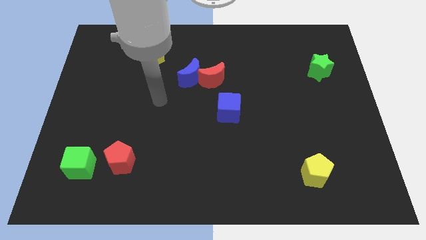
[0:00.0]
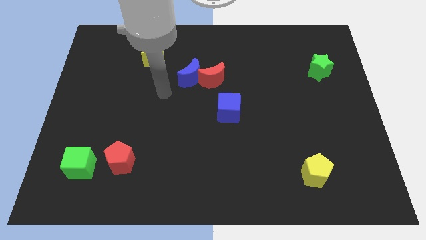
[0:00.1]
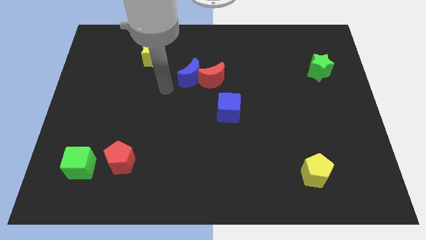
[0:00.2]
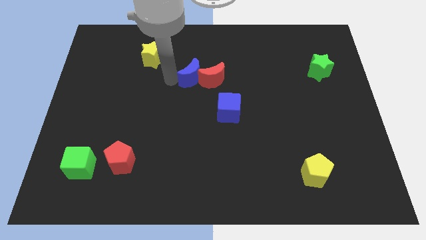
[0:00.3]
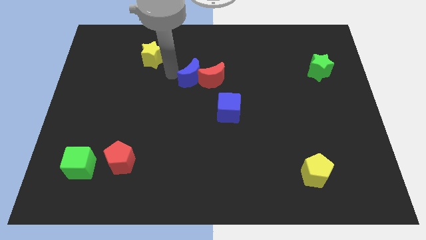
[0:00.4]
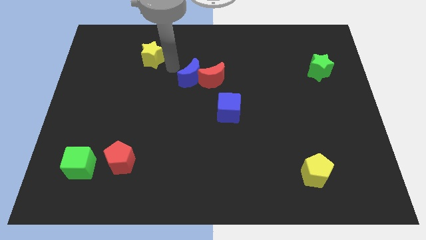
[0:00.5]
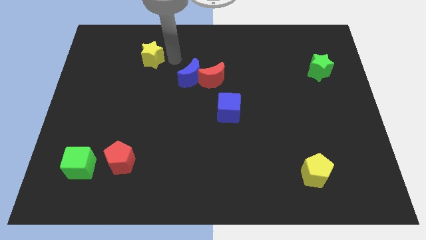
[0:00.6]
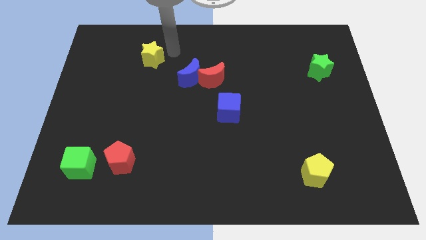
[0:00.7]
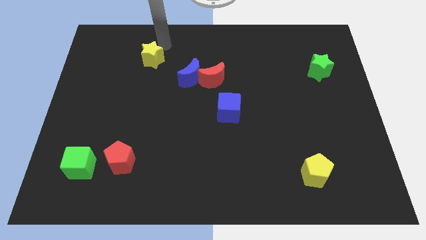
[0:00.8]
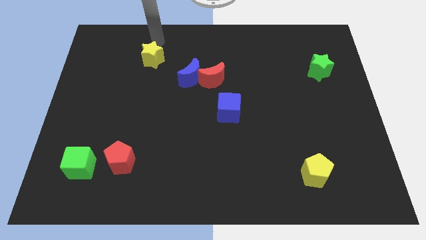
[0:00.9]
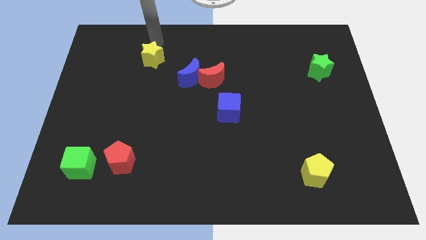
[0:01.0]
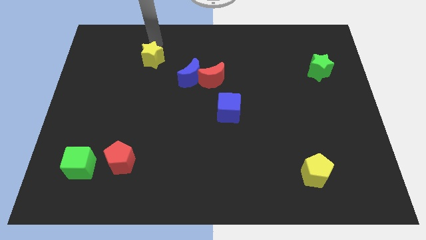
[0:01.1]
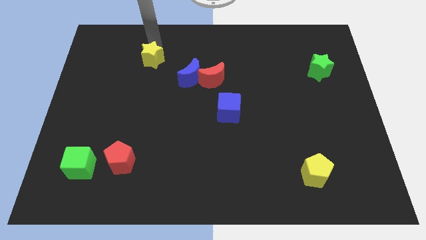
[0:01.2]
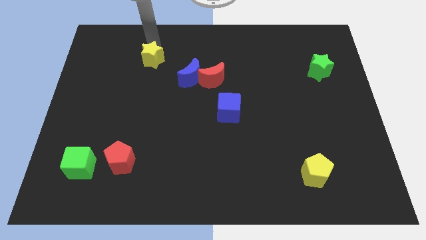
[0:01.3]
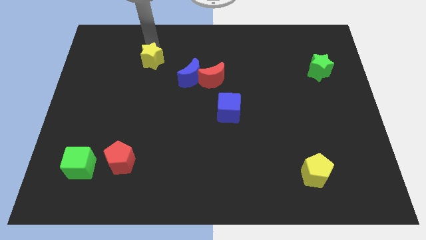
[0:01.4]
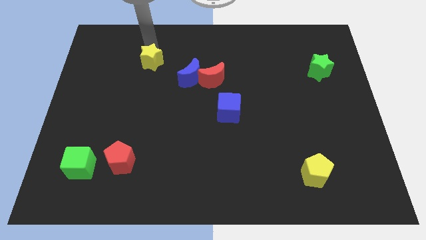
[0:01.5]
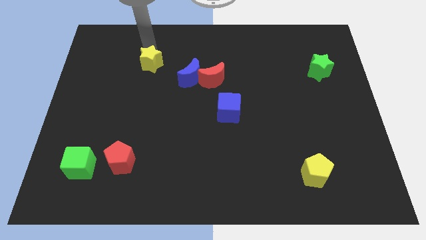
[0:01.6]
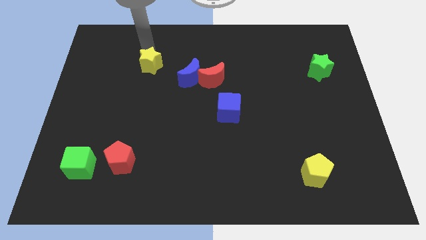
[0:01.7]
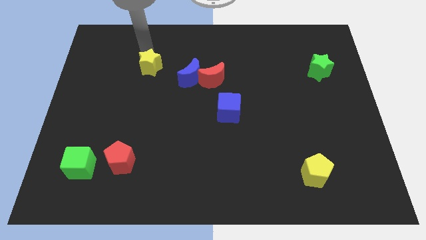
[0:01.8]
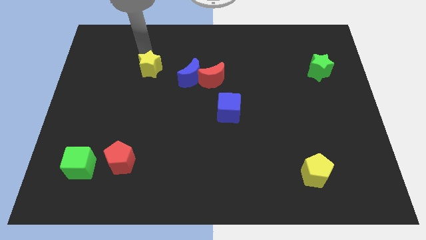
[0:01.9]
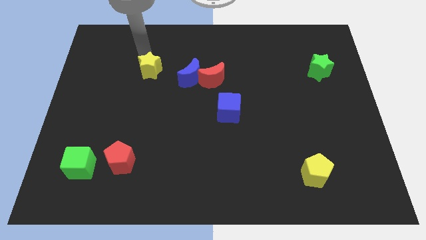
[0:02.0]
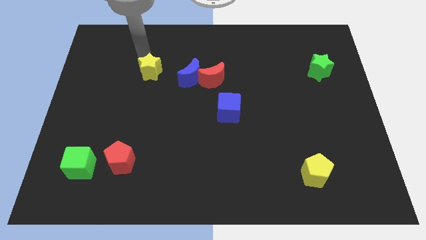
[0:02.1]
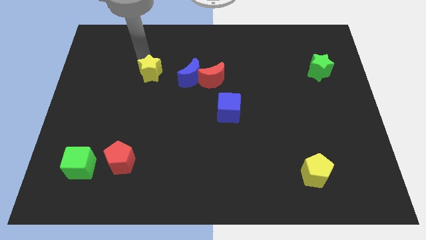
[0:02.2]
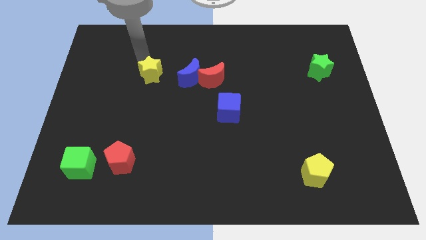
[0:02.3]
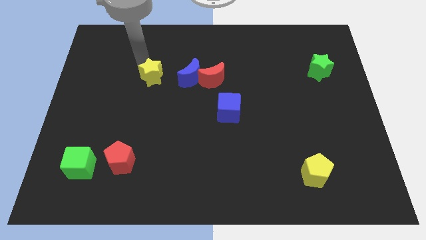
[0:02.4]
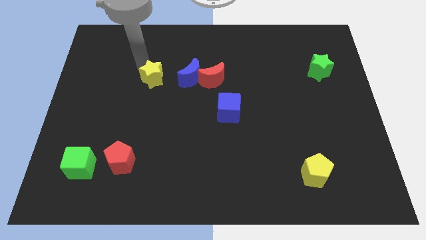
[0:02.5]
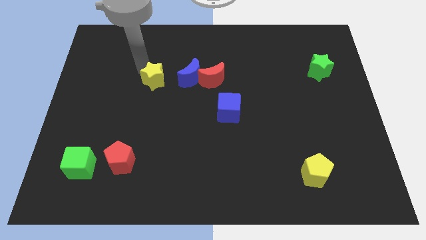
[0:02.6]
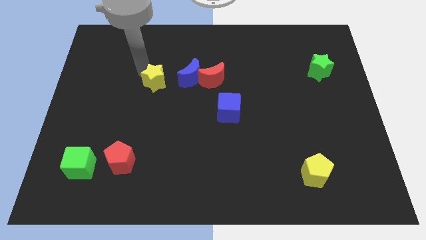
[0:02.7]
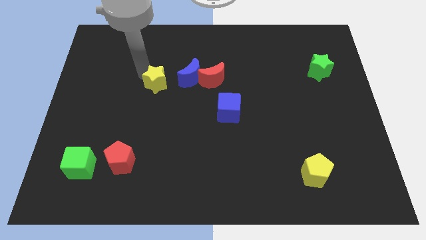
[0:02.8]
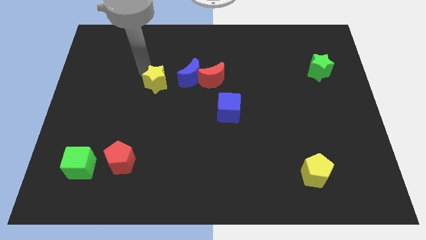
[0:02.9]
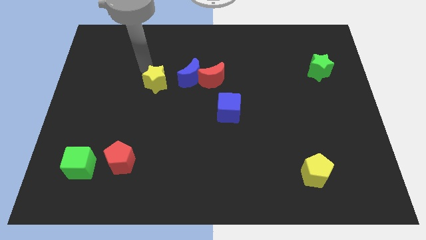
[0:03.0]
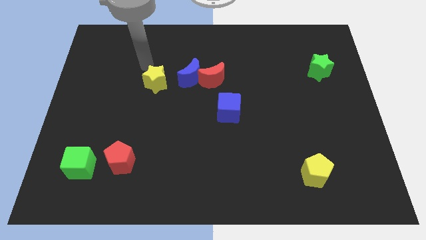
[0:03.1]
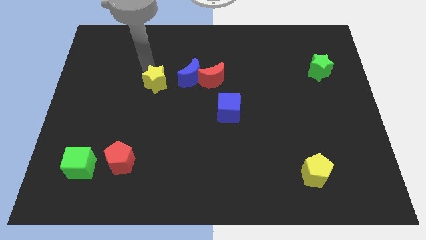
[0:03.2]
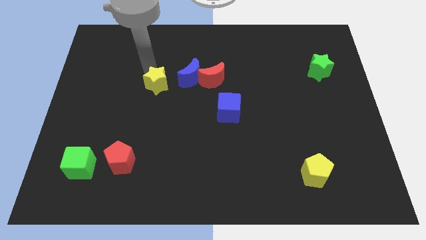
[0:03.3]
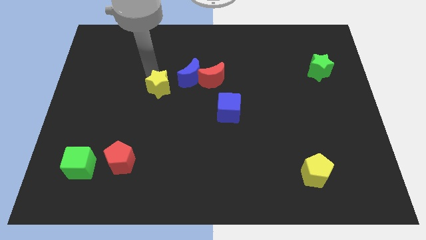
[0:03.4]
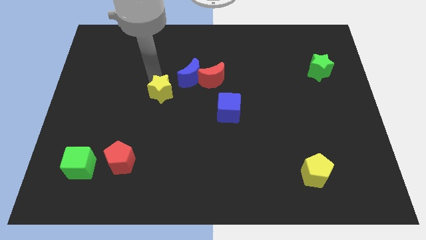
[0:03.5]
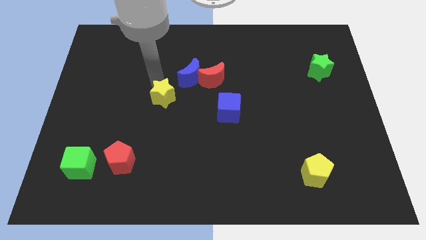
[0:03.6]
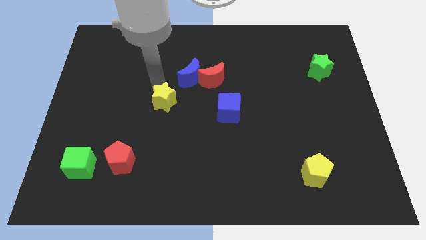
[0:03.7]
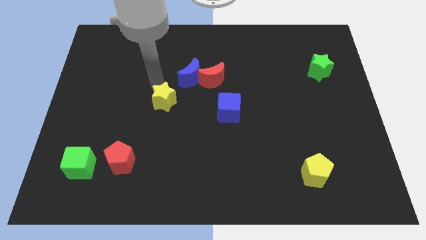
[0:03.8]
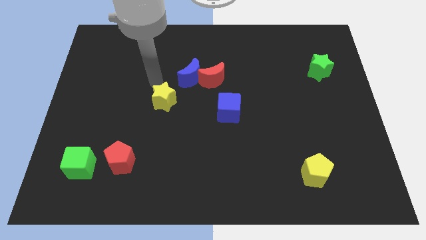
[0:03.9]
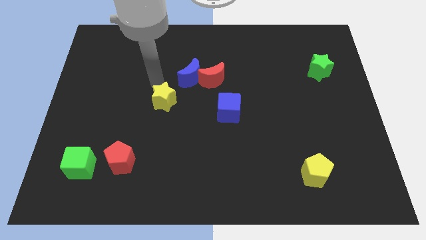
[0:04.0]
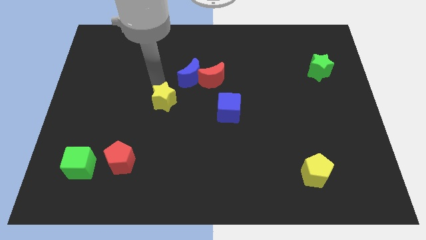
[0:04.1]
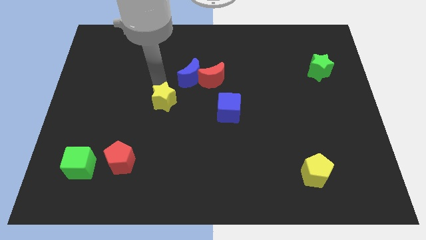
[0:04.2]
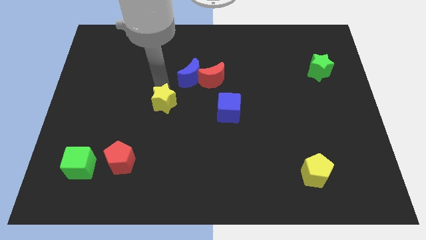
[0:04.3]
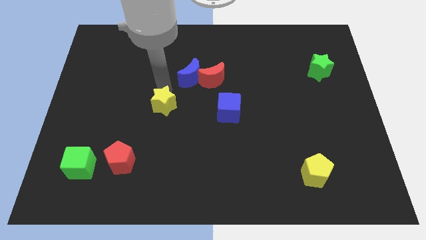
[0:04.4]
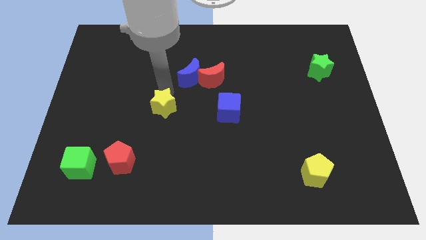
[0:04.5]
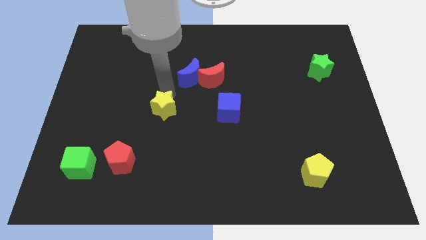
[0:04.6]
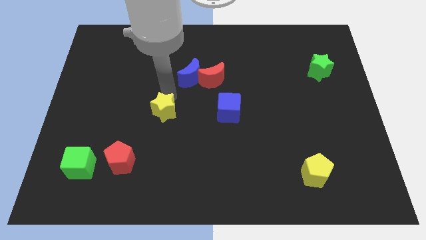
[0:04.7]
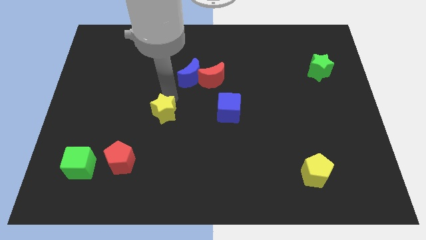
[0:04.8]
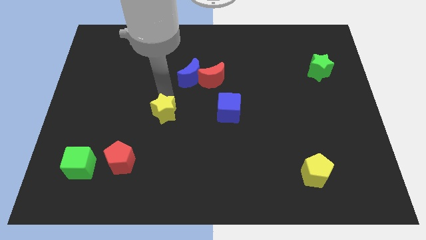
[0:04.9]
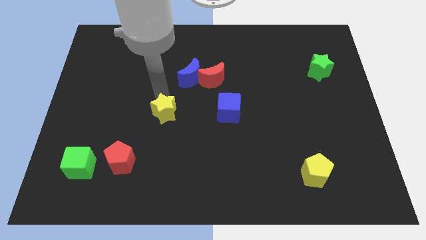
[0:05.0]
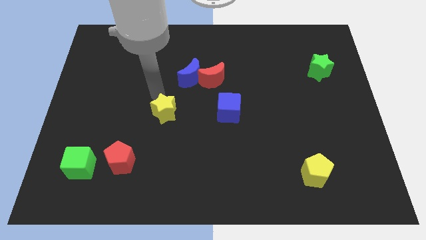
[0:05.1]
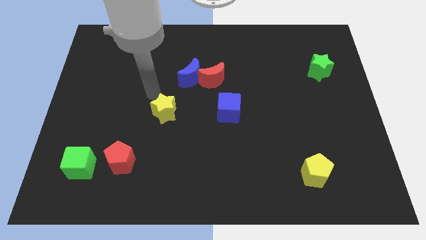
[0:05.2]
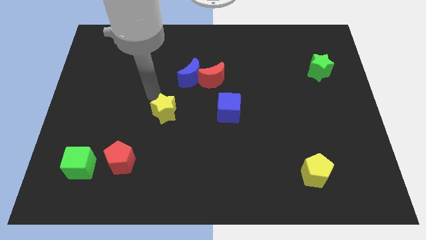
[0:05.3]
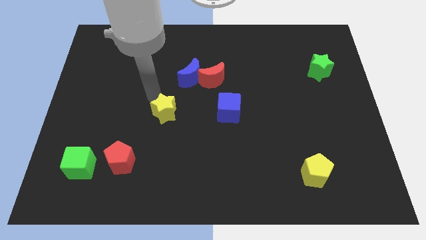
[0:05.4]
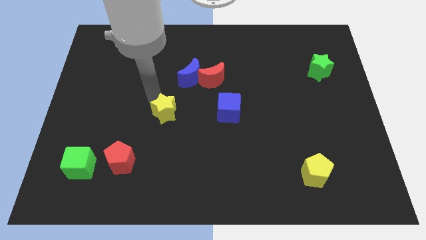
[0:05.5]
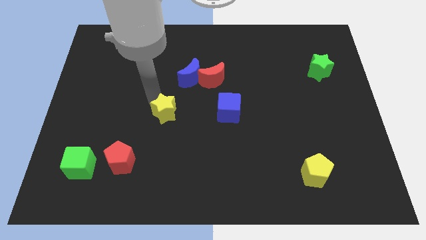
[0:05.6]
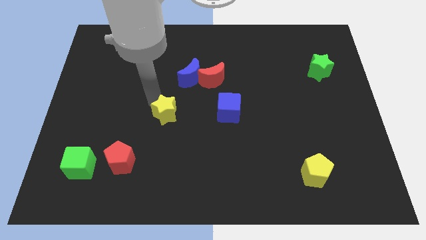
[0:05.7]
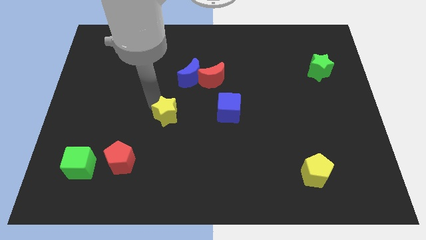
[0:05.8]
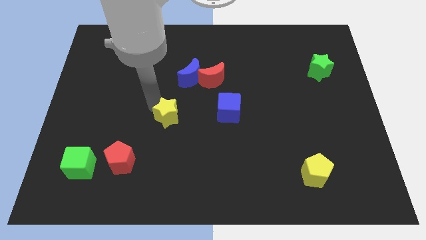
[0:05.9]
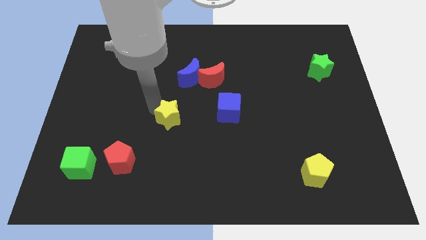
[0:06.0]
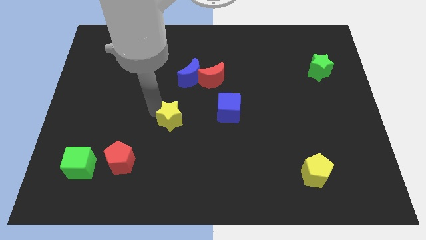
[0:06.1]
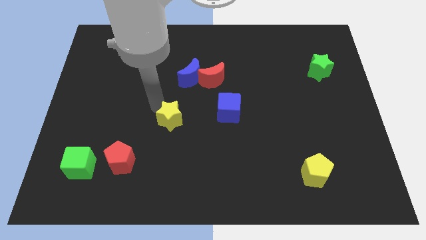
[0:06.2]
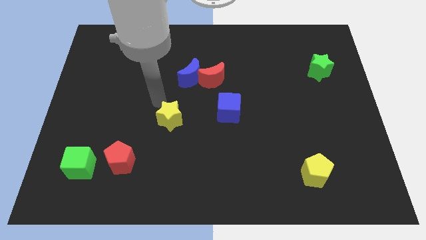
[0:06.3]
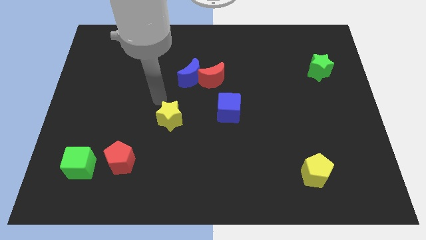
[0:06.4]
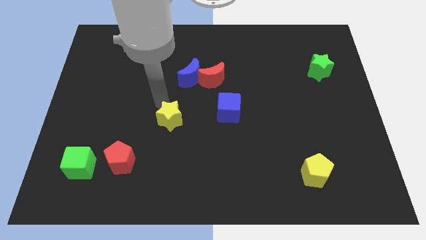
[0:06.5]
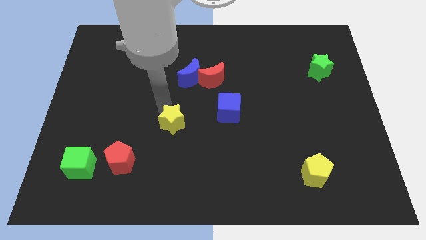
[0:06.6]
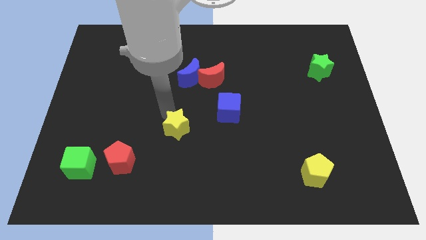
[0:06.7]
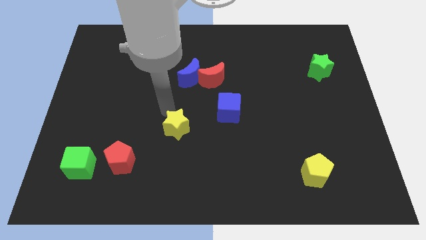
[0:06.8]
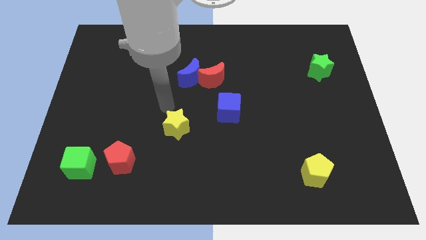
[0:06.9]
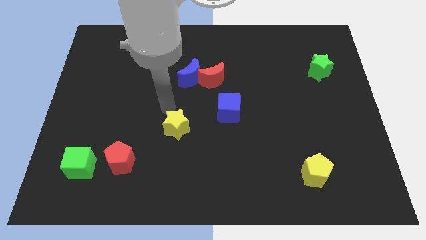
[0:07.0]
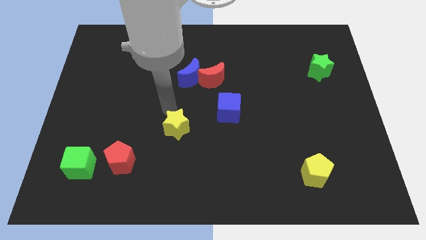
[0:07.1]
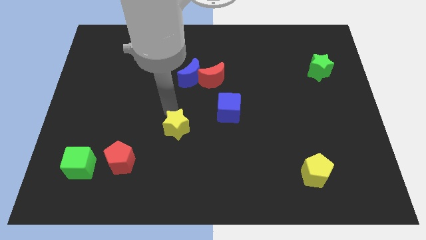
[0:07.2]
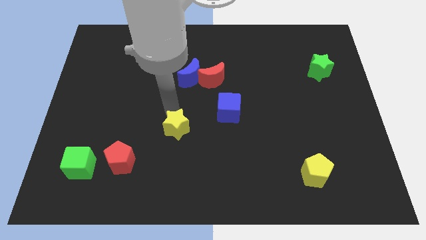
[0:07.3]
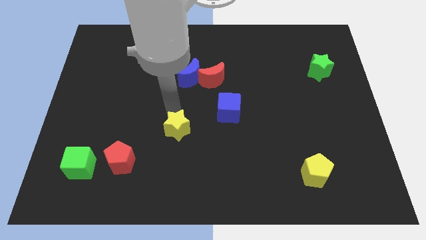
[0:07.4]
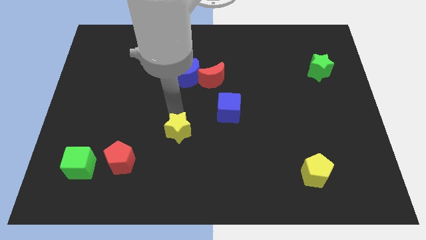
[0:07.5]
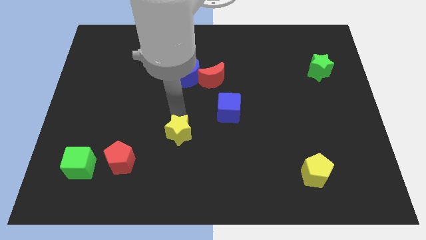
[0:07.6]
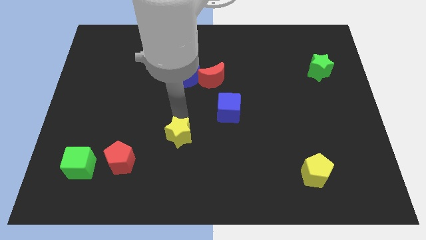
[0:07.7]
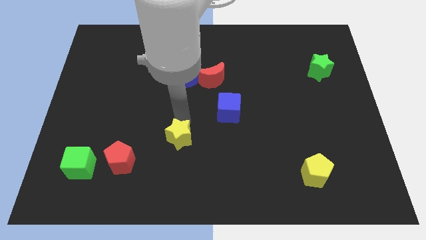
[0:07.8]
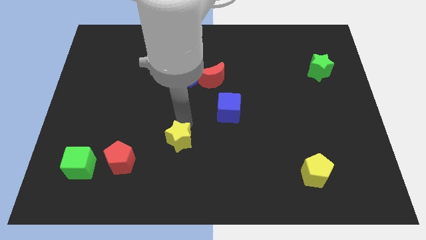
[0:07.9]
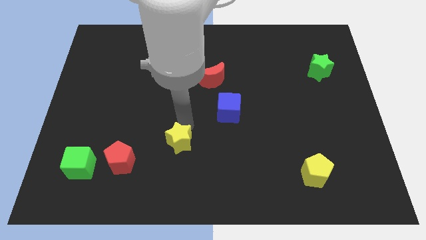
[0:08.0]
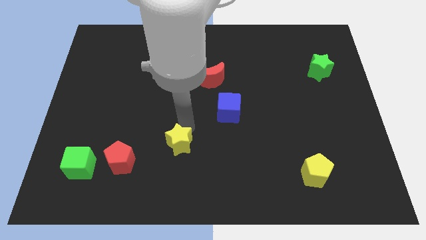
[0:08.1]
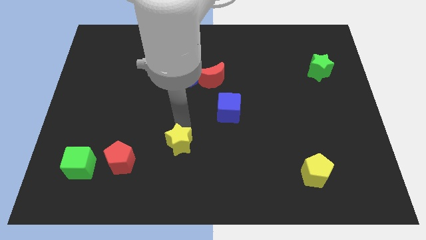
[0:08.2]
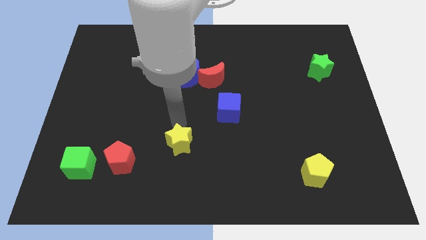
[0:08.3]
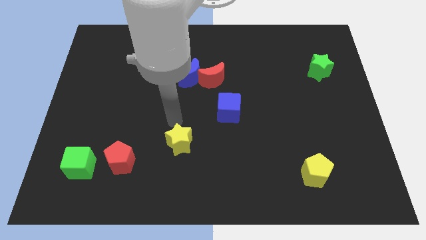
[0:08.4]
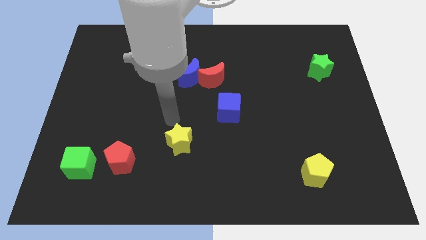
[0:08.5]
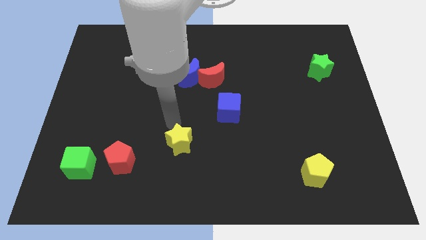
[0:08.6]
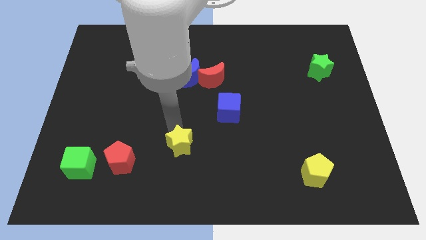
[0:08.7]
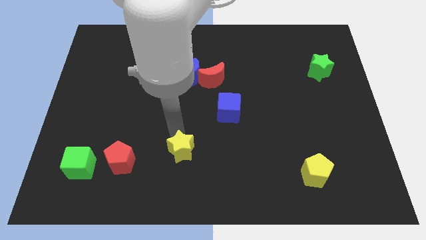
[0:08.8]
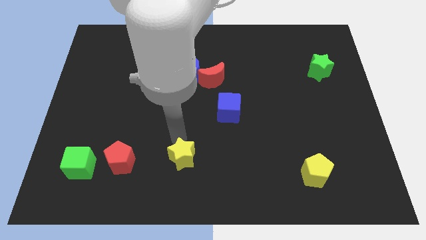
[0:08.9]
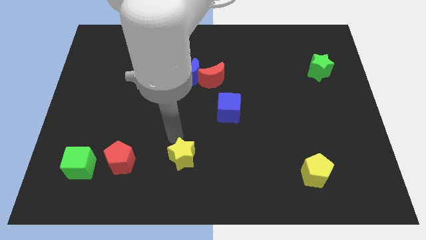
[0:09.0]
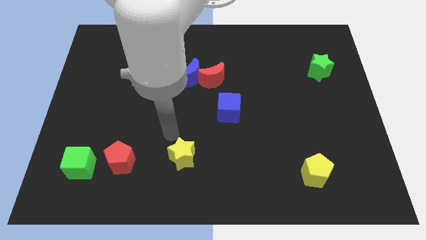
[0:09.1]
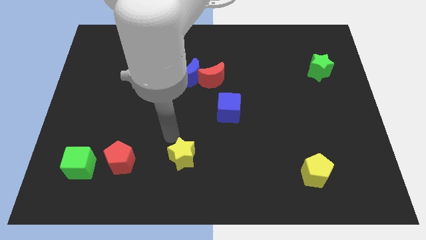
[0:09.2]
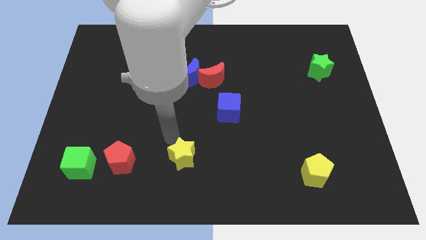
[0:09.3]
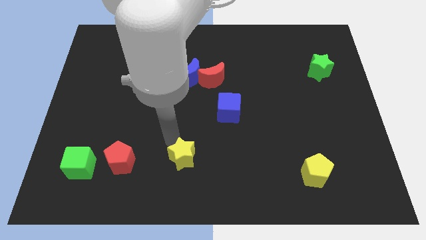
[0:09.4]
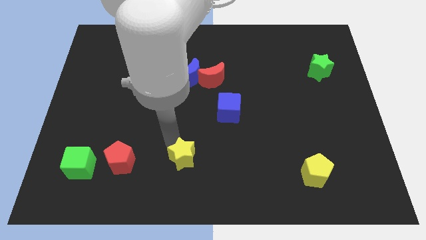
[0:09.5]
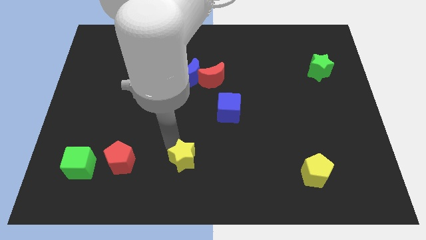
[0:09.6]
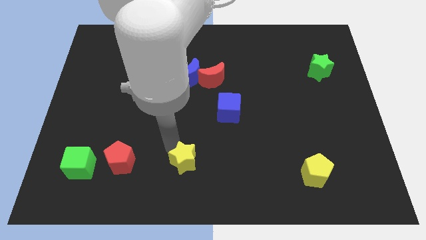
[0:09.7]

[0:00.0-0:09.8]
put the yellow star to the bottom side
